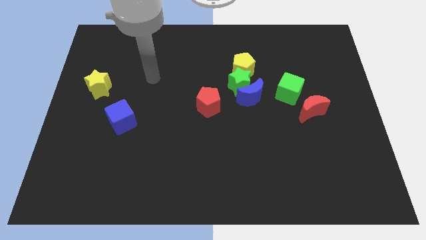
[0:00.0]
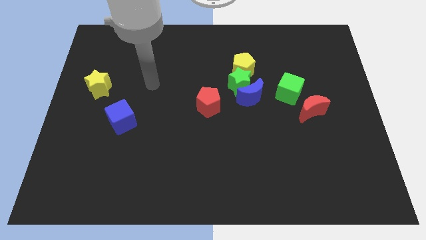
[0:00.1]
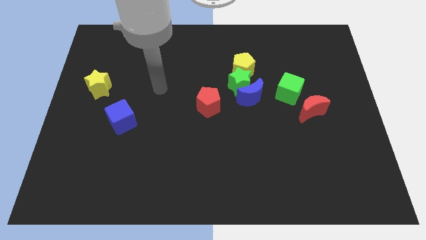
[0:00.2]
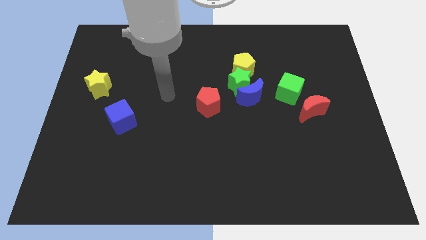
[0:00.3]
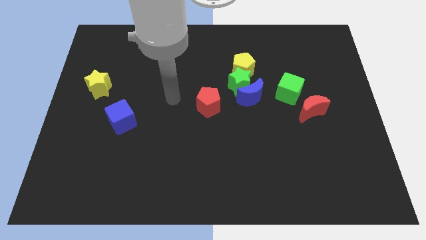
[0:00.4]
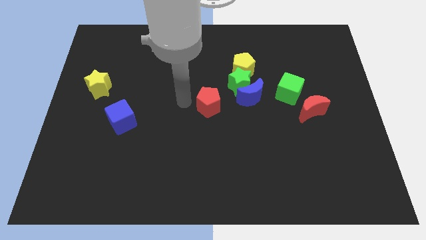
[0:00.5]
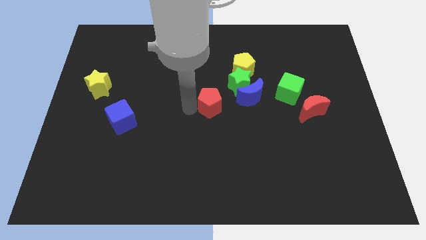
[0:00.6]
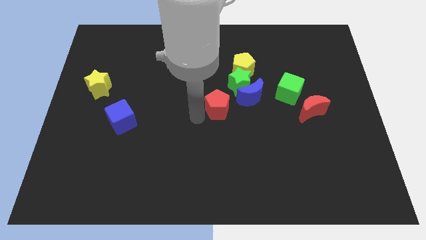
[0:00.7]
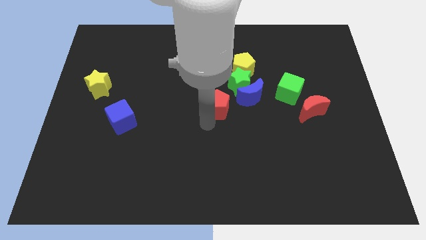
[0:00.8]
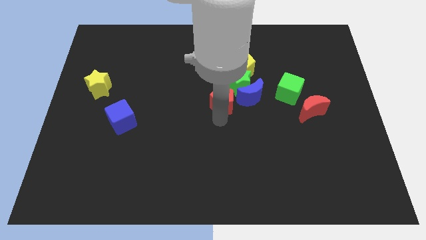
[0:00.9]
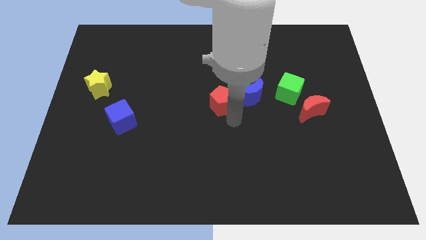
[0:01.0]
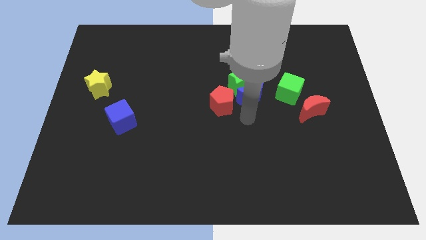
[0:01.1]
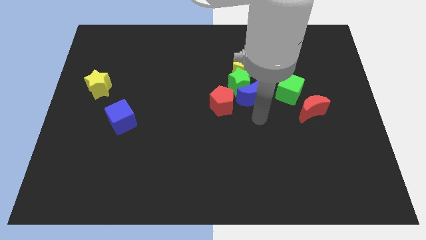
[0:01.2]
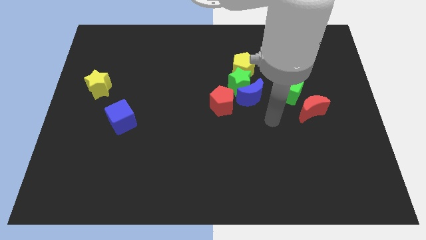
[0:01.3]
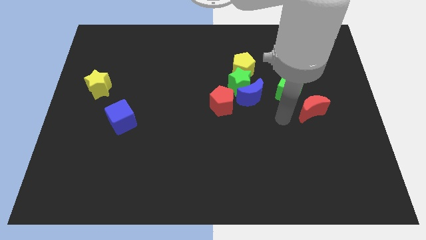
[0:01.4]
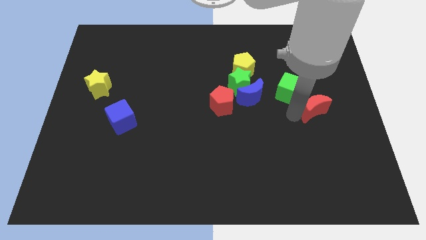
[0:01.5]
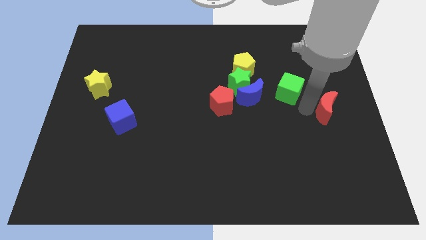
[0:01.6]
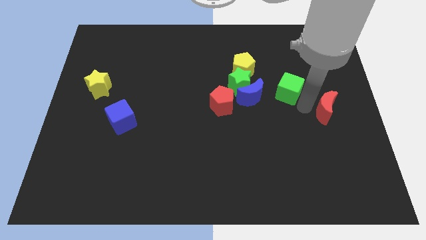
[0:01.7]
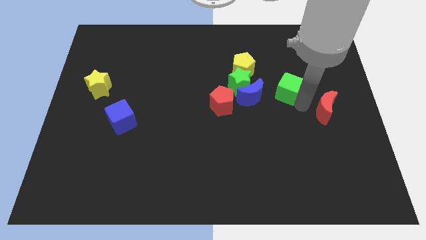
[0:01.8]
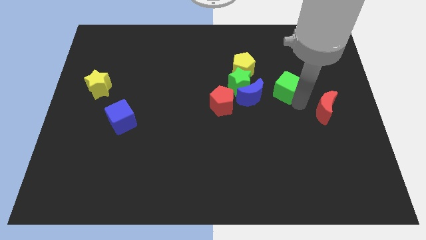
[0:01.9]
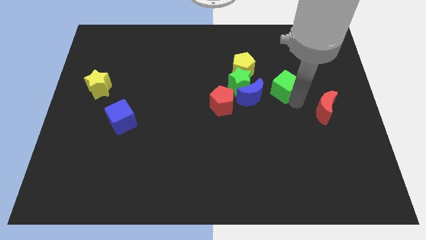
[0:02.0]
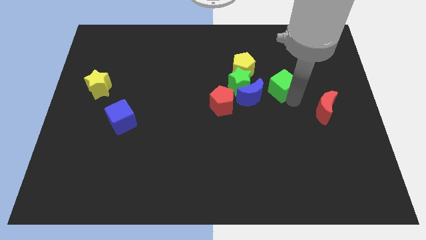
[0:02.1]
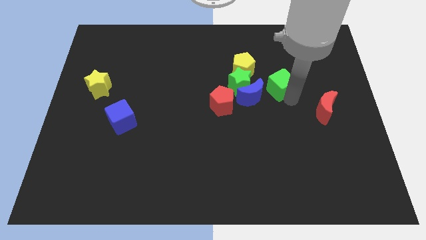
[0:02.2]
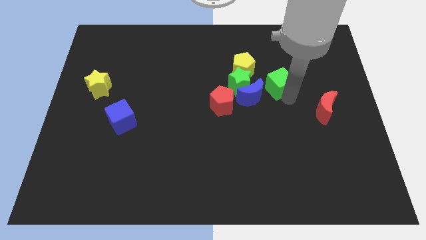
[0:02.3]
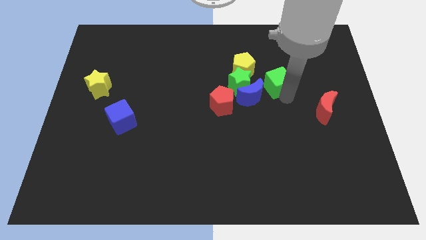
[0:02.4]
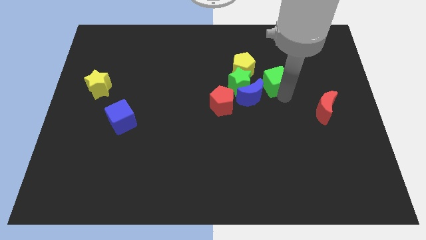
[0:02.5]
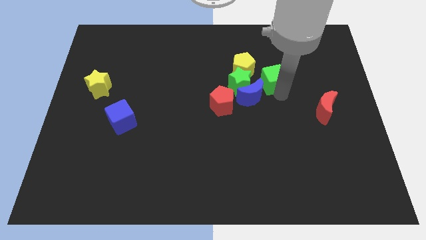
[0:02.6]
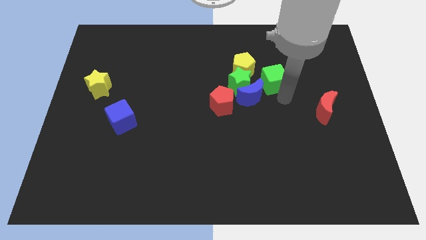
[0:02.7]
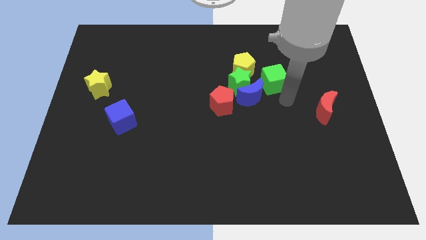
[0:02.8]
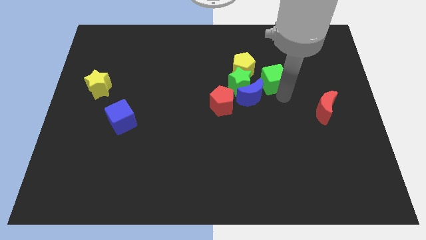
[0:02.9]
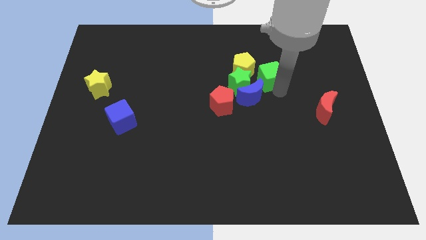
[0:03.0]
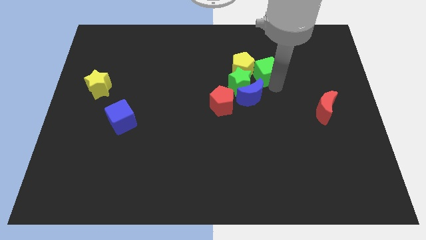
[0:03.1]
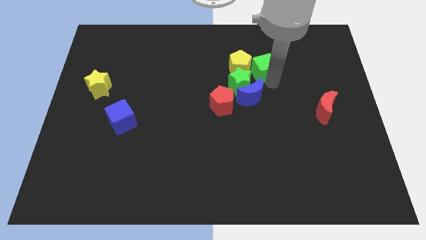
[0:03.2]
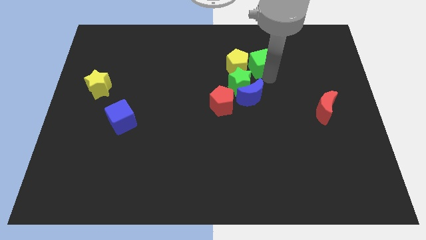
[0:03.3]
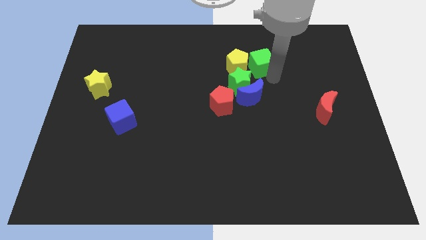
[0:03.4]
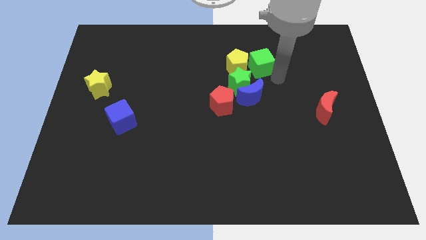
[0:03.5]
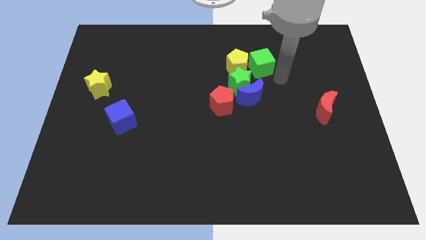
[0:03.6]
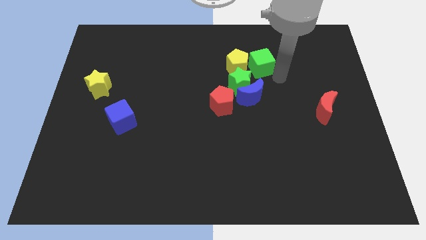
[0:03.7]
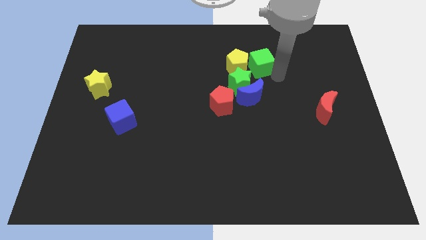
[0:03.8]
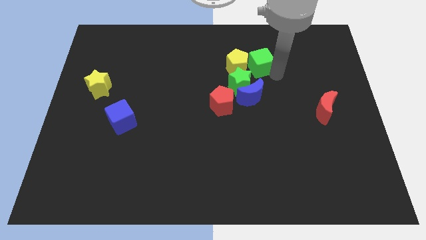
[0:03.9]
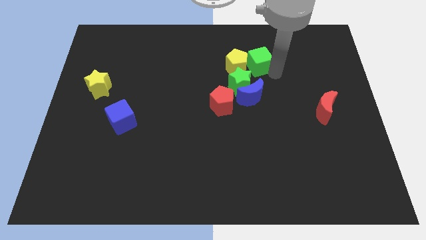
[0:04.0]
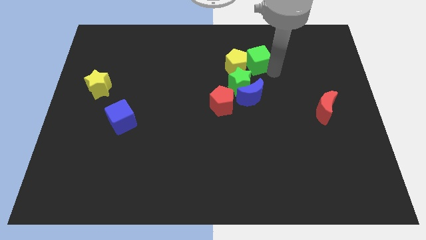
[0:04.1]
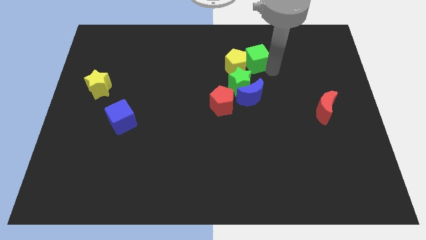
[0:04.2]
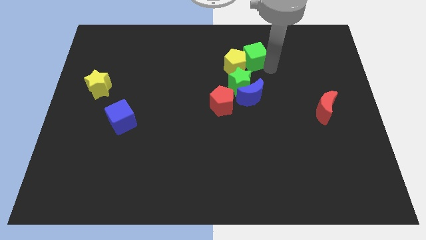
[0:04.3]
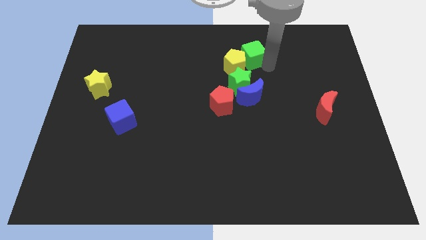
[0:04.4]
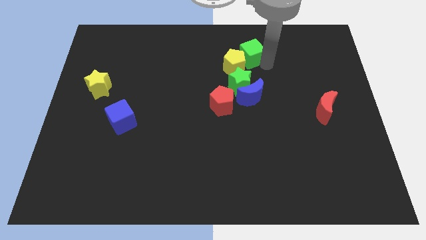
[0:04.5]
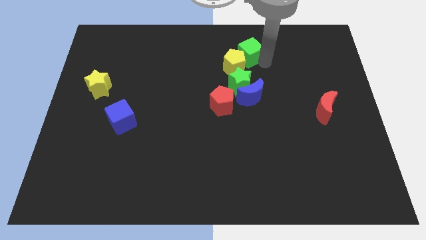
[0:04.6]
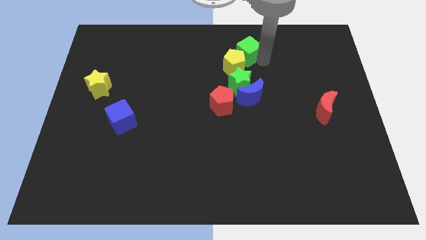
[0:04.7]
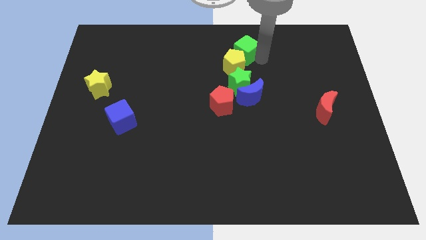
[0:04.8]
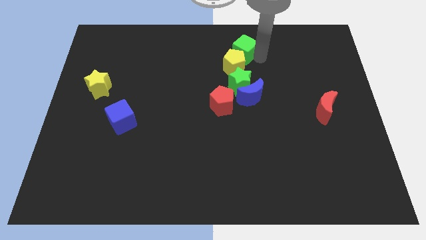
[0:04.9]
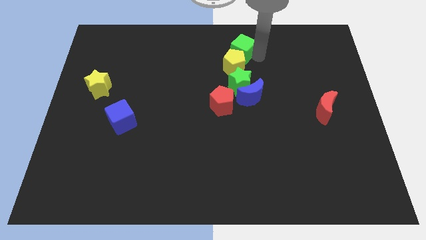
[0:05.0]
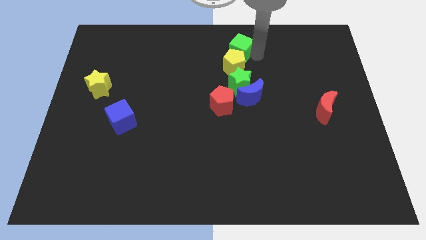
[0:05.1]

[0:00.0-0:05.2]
put the green cube to the top side

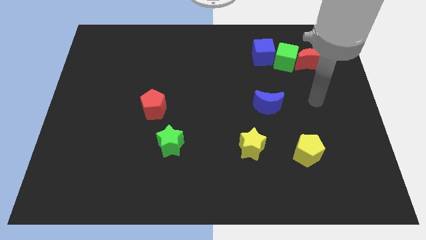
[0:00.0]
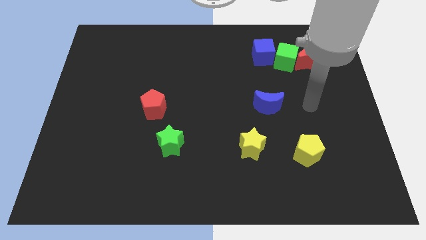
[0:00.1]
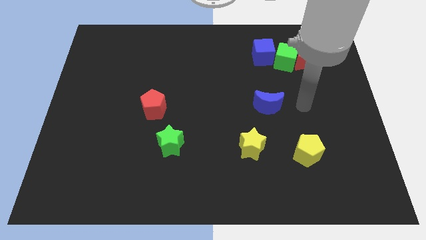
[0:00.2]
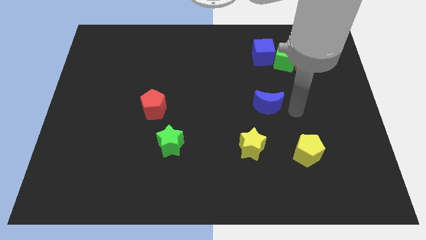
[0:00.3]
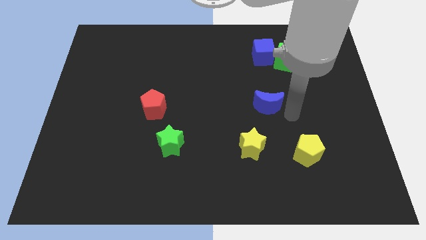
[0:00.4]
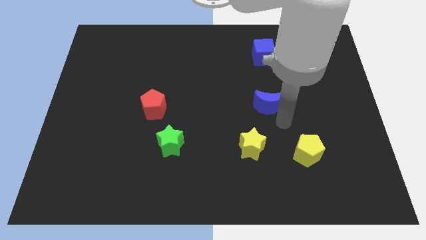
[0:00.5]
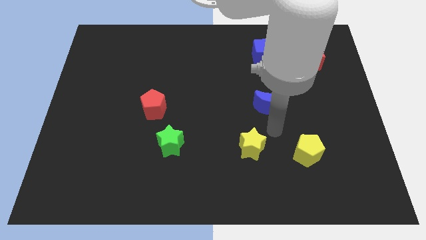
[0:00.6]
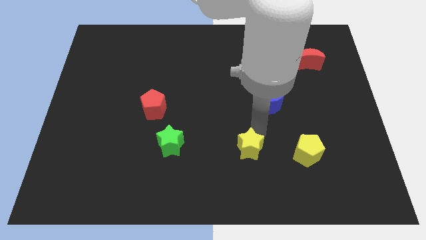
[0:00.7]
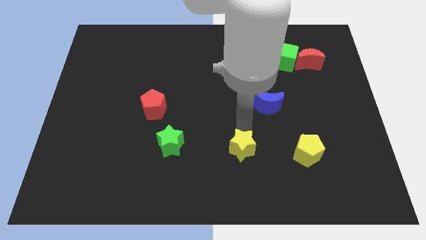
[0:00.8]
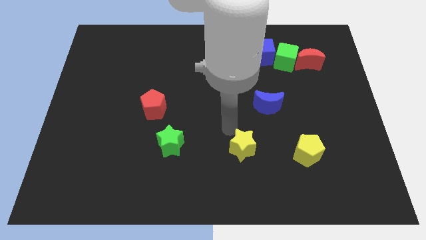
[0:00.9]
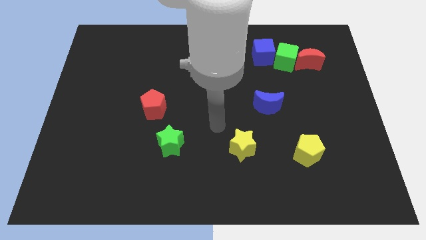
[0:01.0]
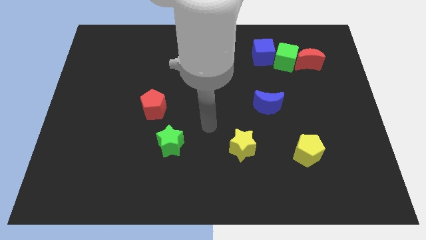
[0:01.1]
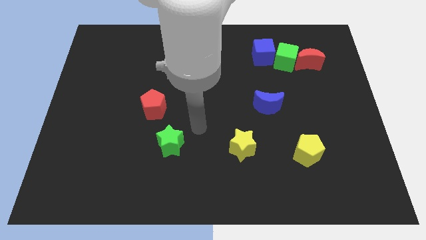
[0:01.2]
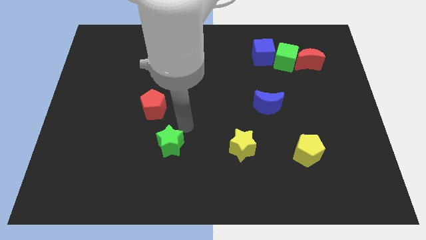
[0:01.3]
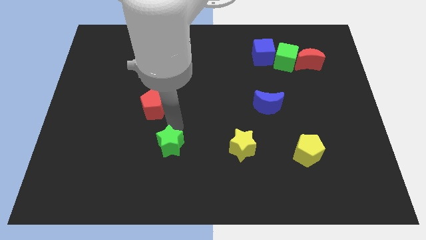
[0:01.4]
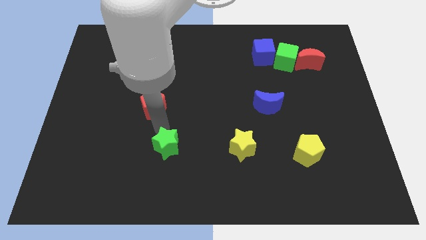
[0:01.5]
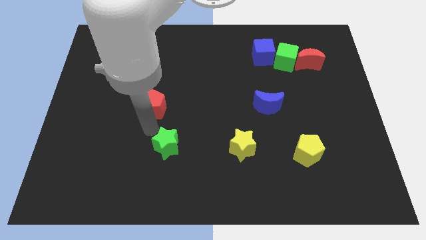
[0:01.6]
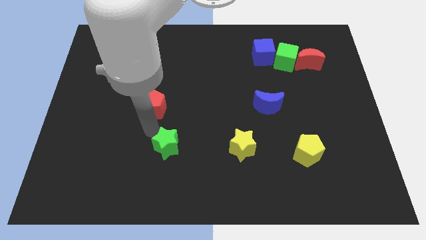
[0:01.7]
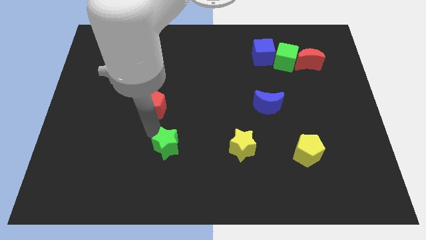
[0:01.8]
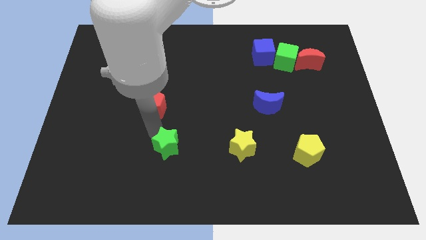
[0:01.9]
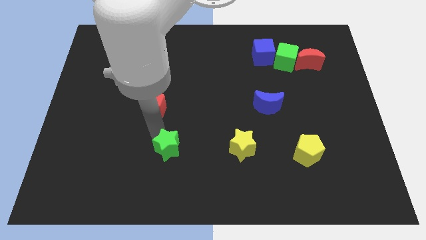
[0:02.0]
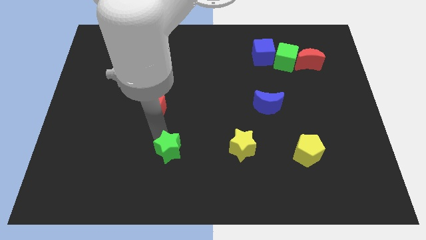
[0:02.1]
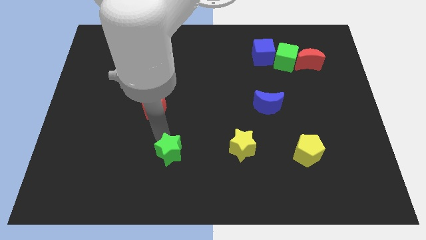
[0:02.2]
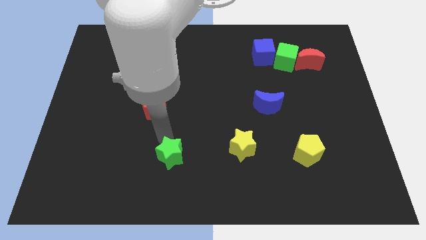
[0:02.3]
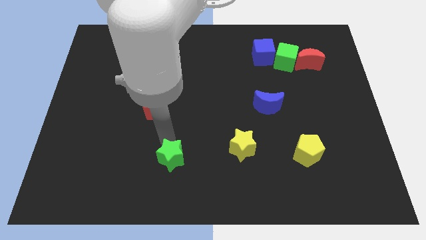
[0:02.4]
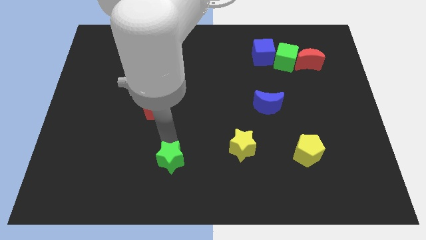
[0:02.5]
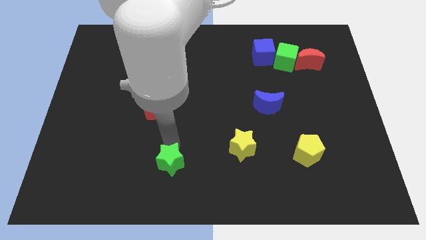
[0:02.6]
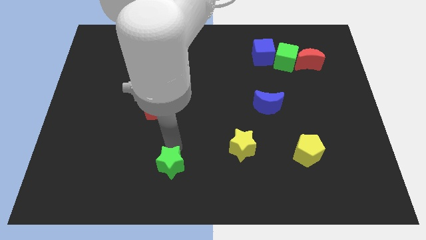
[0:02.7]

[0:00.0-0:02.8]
slide the green star to the bottom side
